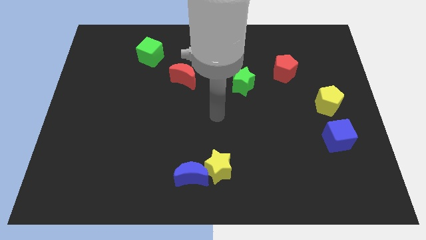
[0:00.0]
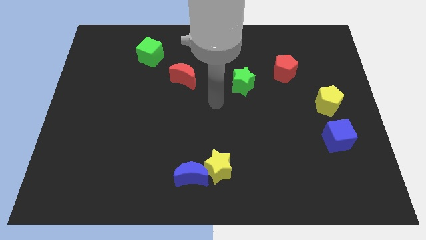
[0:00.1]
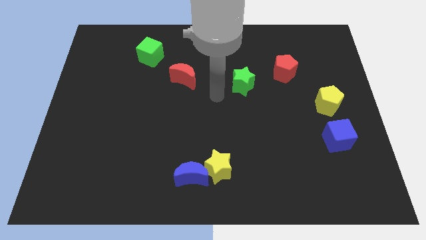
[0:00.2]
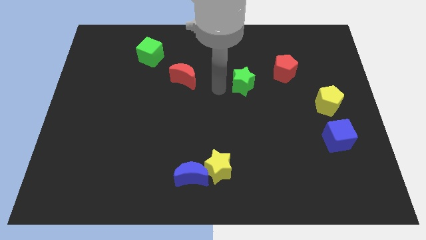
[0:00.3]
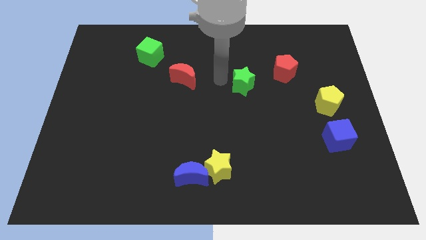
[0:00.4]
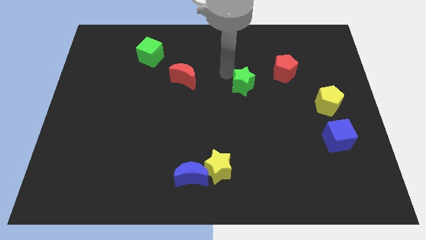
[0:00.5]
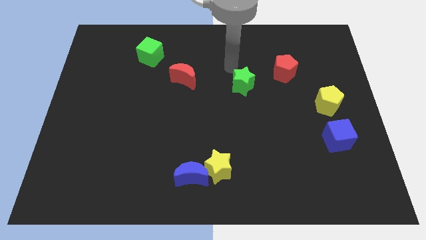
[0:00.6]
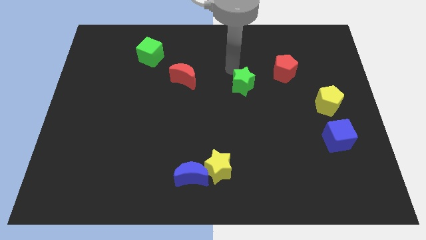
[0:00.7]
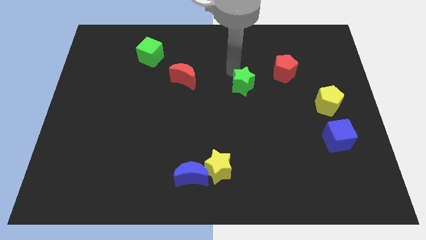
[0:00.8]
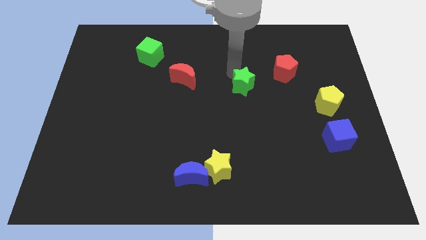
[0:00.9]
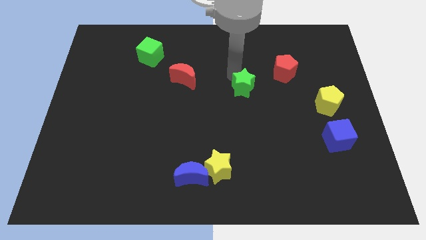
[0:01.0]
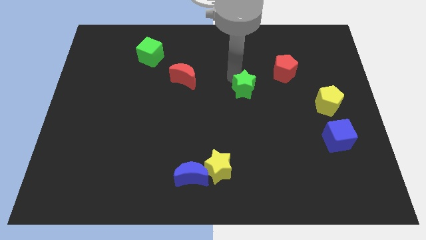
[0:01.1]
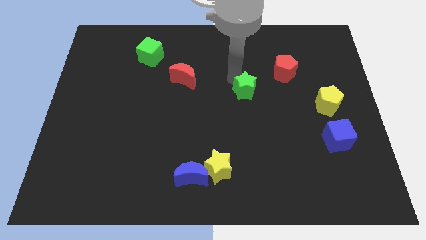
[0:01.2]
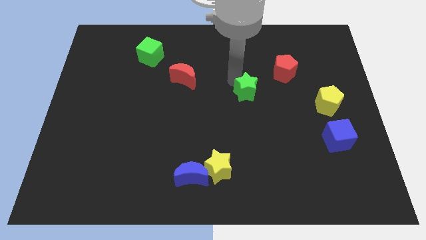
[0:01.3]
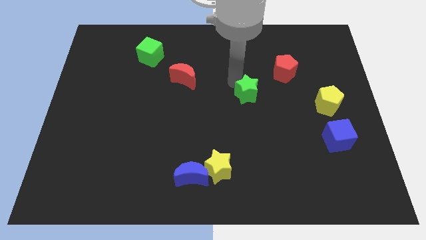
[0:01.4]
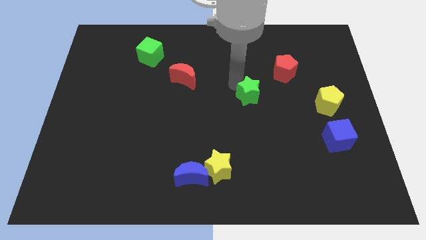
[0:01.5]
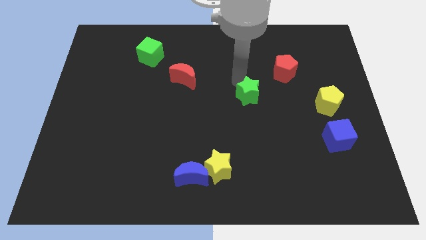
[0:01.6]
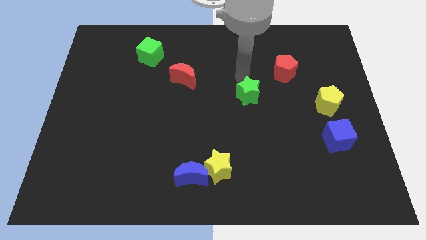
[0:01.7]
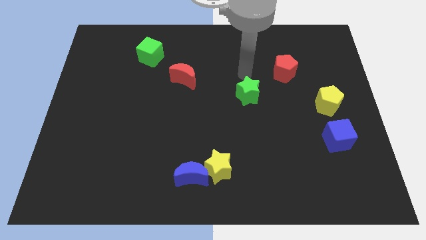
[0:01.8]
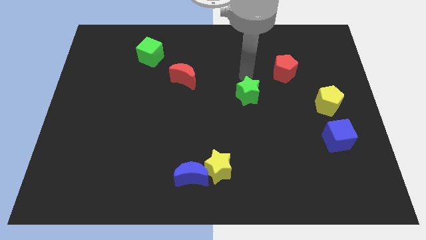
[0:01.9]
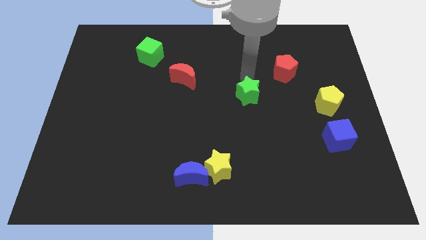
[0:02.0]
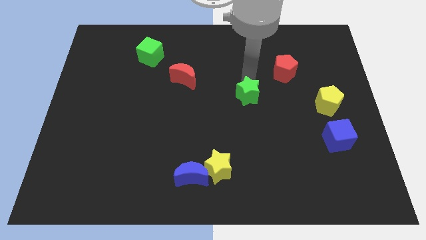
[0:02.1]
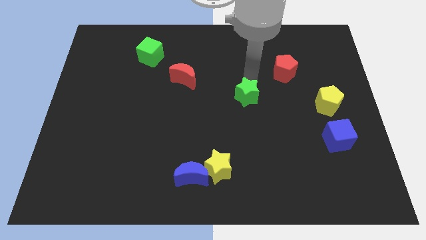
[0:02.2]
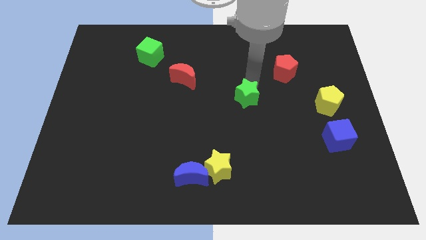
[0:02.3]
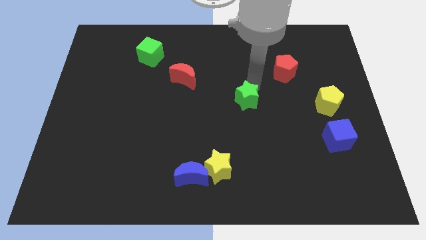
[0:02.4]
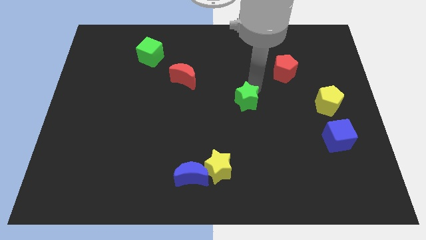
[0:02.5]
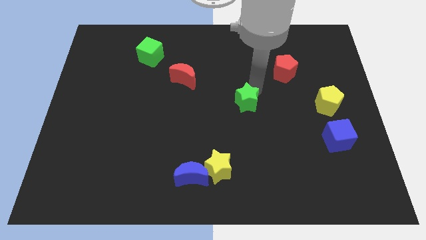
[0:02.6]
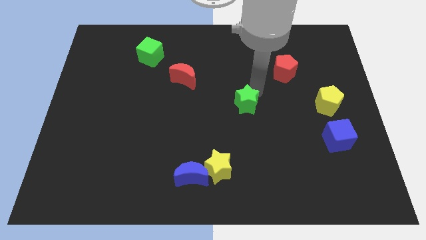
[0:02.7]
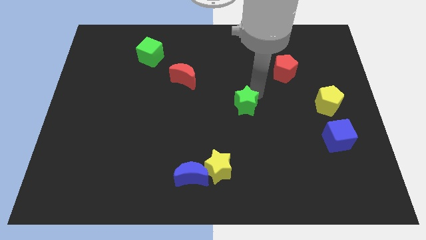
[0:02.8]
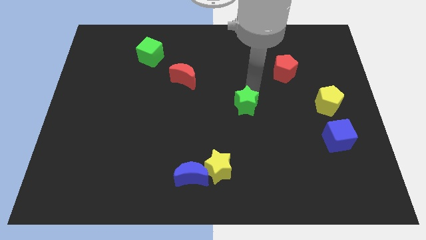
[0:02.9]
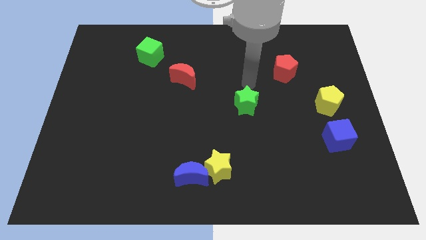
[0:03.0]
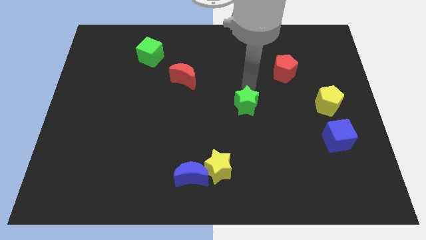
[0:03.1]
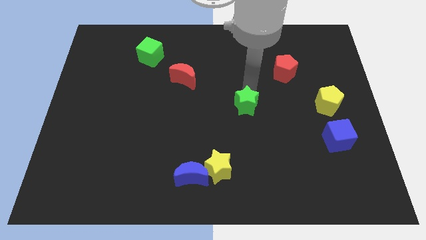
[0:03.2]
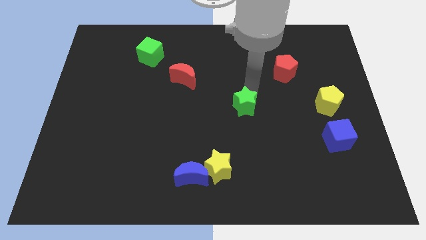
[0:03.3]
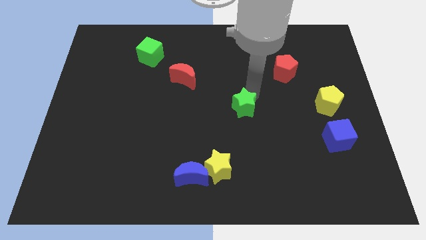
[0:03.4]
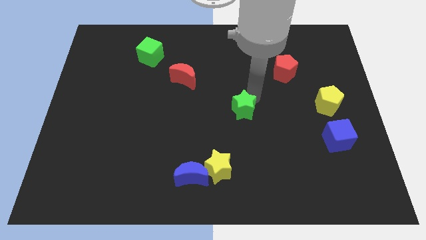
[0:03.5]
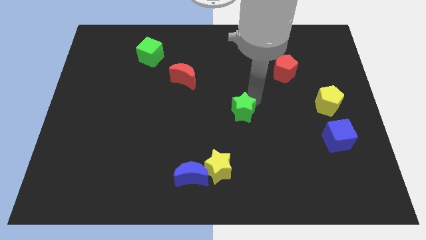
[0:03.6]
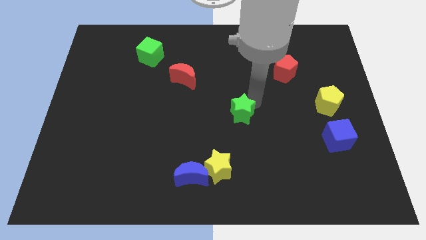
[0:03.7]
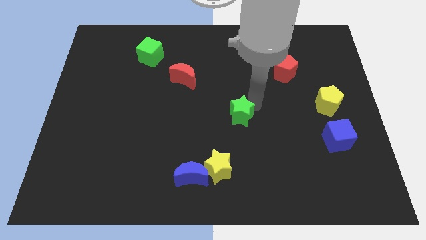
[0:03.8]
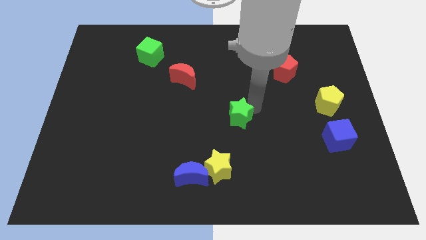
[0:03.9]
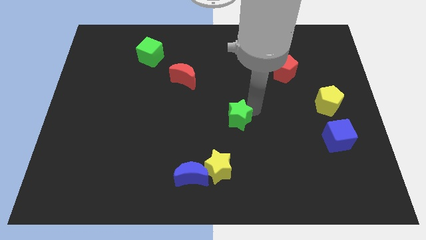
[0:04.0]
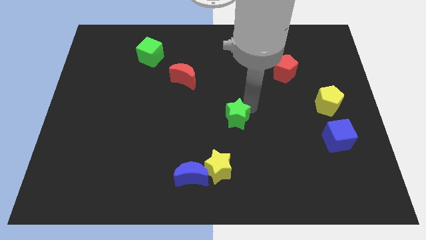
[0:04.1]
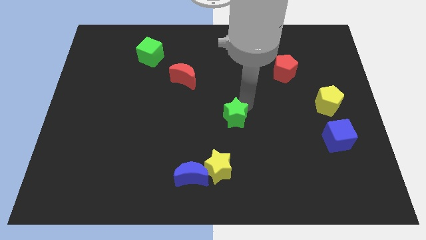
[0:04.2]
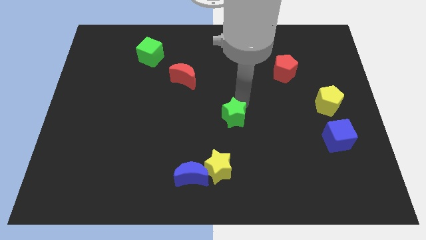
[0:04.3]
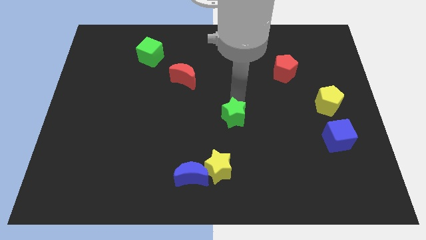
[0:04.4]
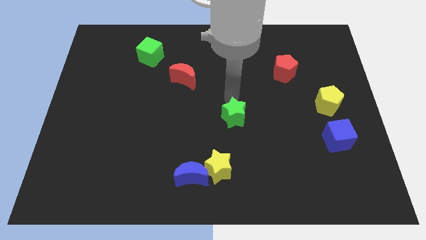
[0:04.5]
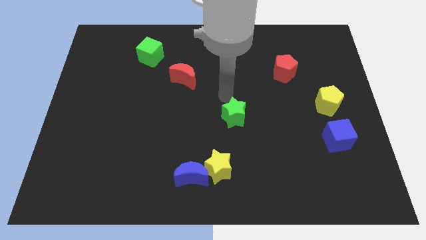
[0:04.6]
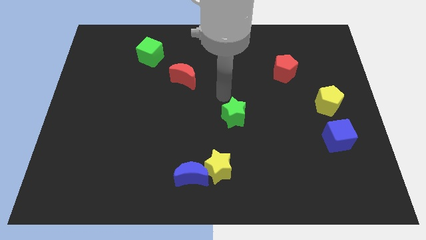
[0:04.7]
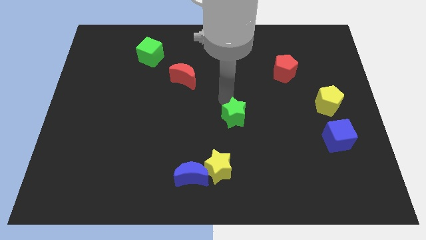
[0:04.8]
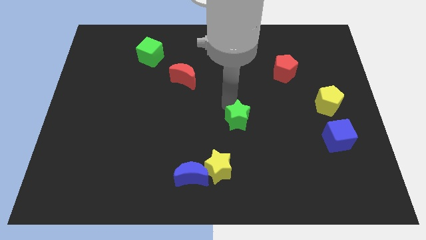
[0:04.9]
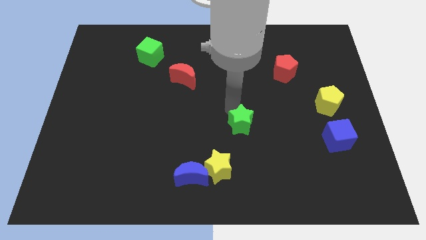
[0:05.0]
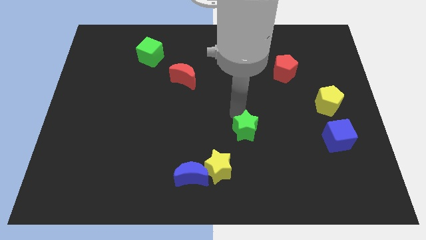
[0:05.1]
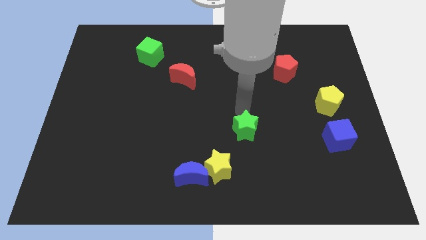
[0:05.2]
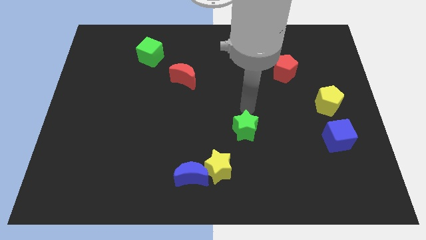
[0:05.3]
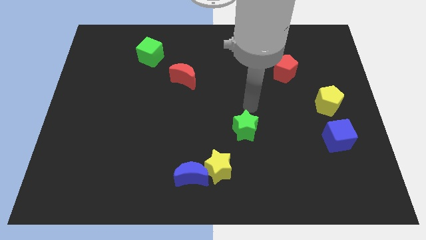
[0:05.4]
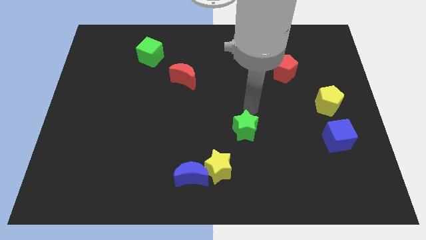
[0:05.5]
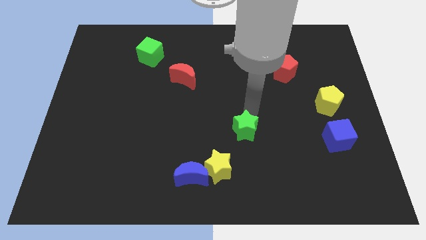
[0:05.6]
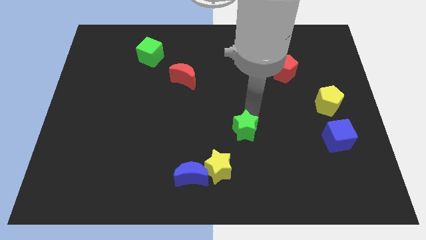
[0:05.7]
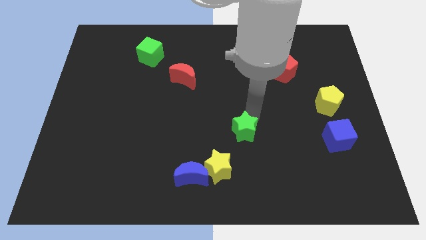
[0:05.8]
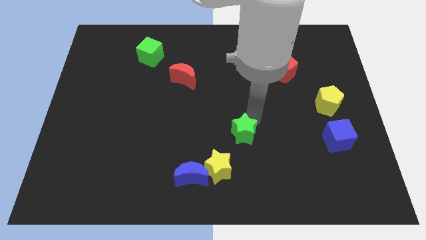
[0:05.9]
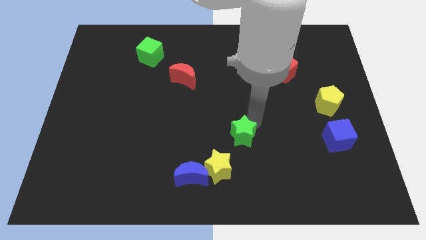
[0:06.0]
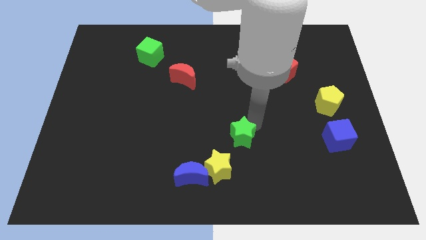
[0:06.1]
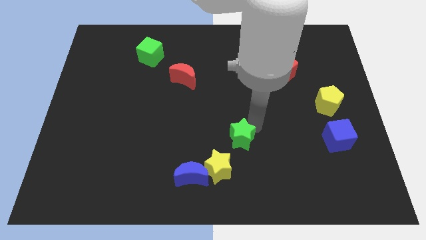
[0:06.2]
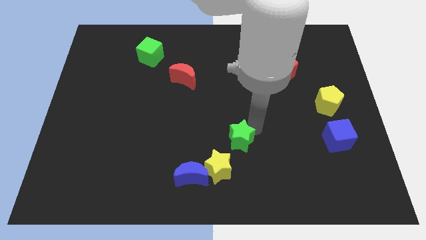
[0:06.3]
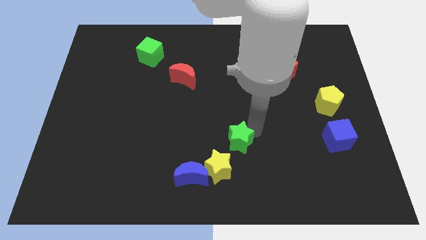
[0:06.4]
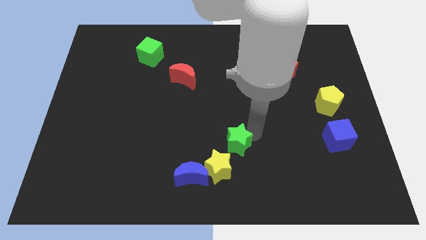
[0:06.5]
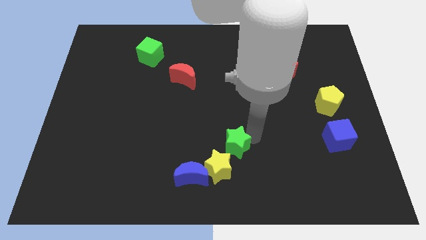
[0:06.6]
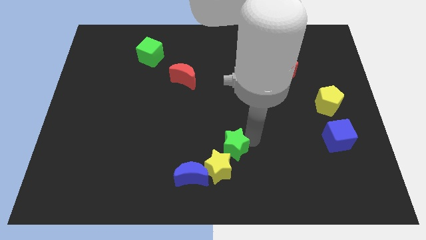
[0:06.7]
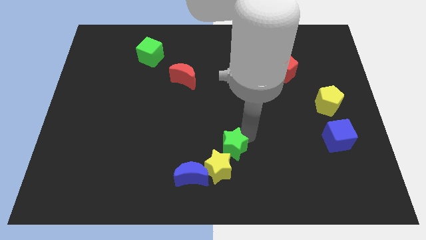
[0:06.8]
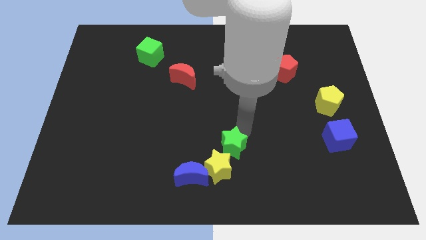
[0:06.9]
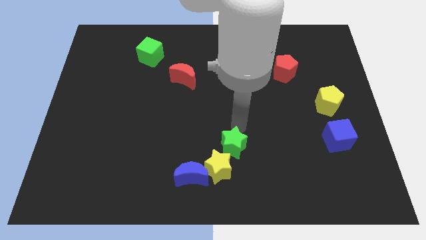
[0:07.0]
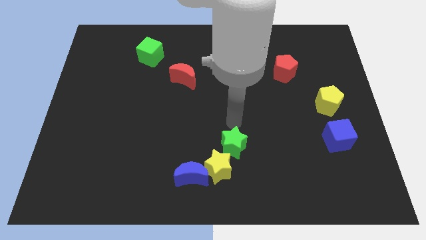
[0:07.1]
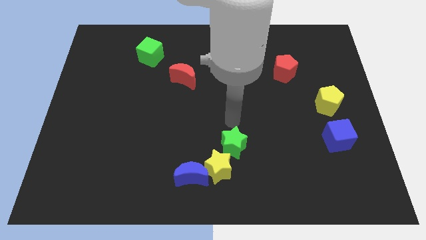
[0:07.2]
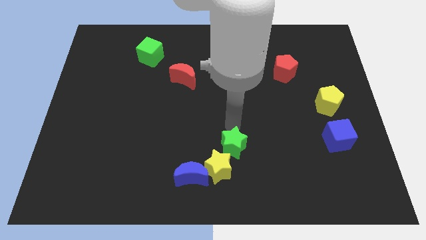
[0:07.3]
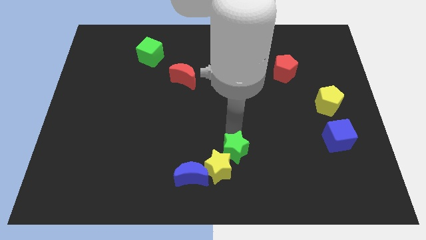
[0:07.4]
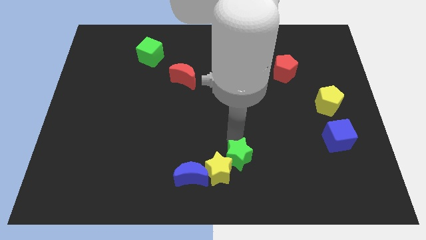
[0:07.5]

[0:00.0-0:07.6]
move the green star to the bottom side
